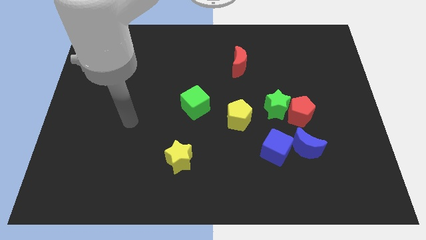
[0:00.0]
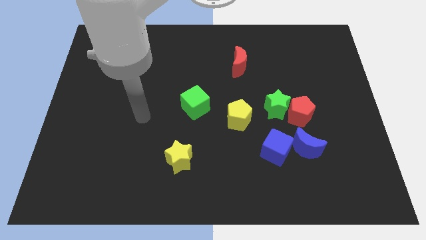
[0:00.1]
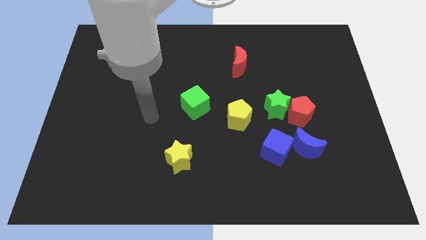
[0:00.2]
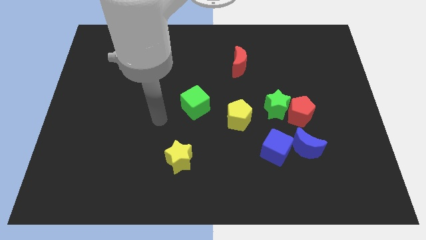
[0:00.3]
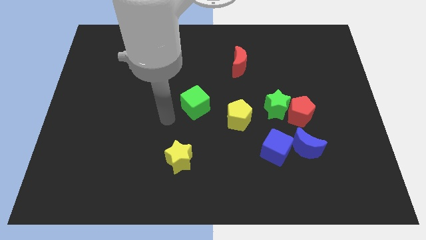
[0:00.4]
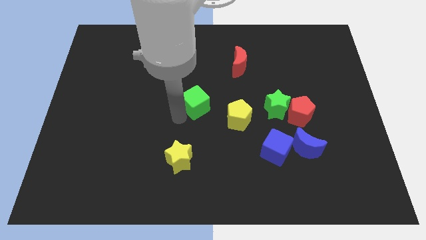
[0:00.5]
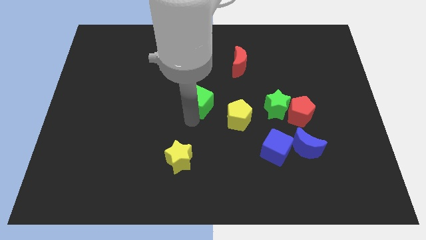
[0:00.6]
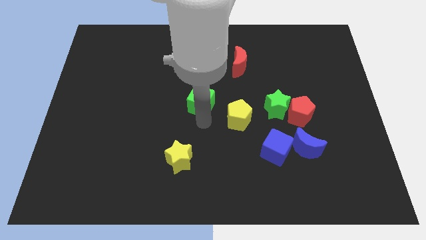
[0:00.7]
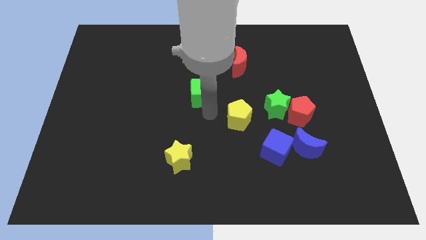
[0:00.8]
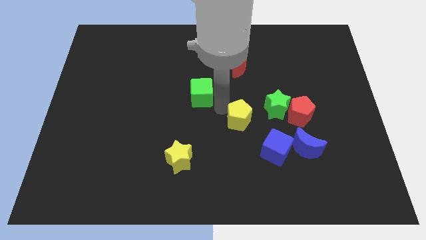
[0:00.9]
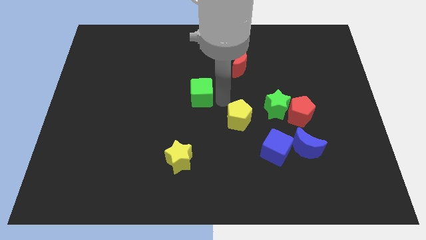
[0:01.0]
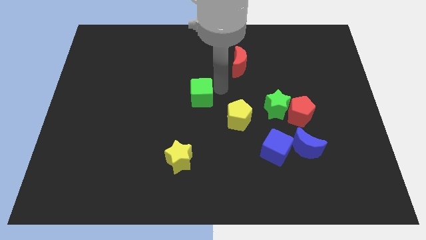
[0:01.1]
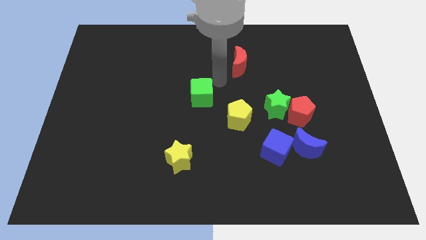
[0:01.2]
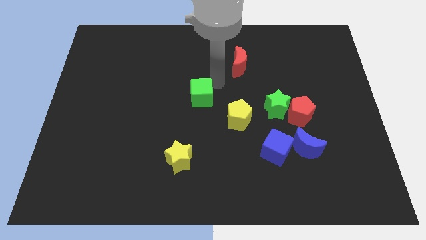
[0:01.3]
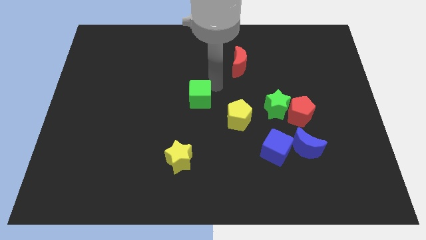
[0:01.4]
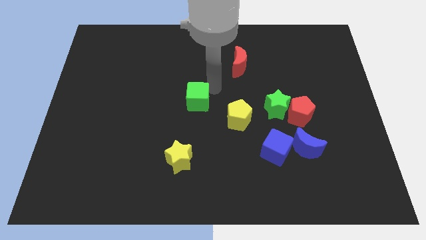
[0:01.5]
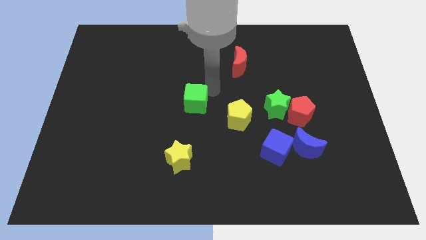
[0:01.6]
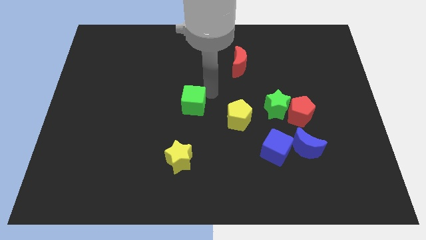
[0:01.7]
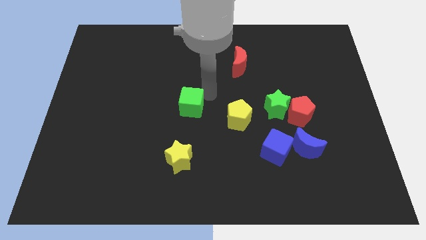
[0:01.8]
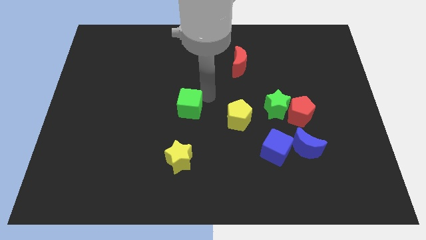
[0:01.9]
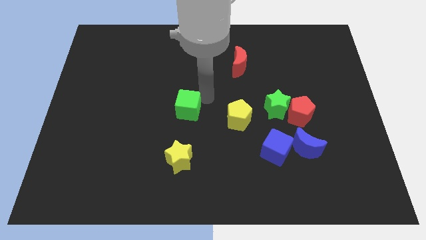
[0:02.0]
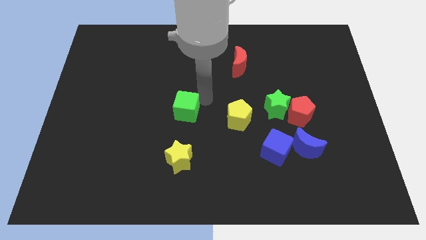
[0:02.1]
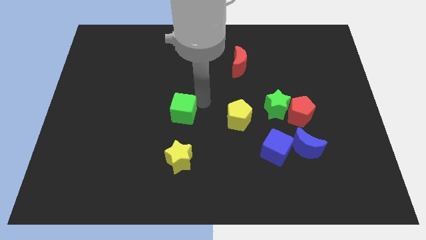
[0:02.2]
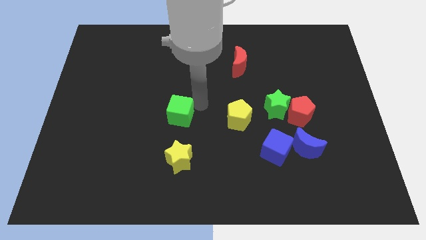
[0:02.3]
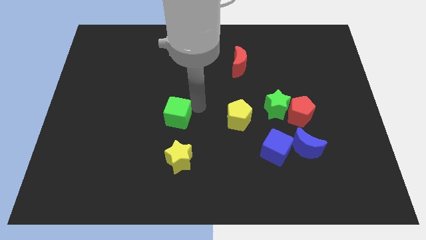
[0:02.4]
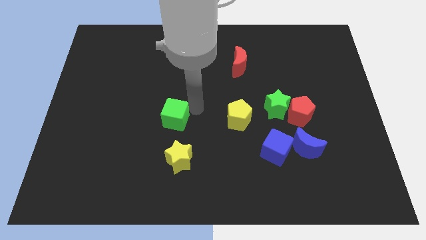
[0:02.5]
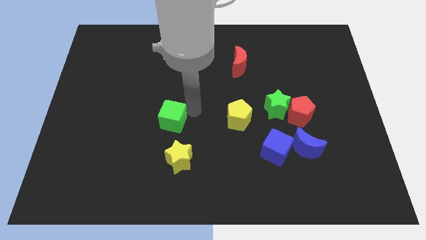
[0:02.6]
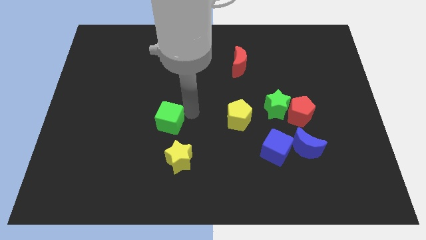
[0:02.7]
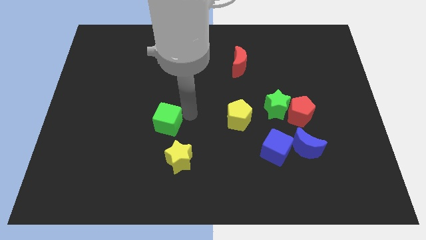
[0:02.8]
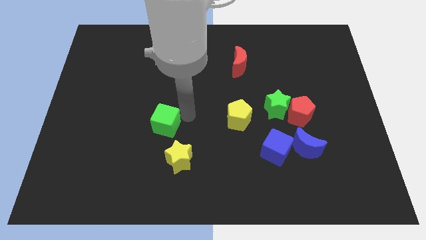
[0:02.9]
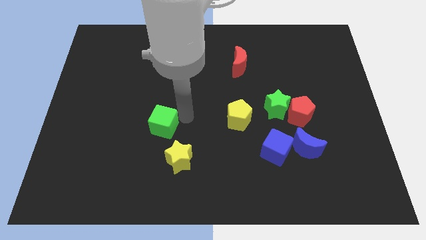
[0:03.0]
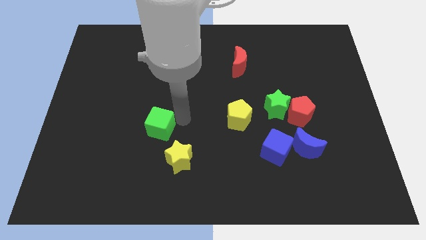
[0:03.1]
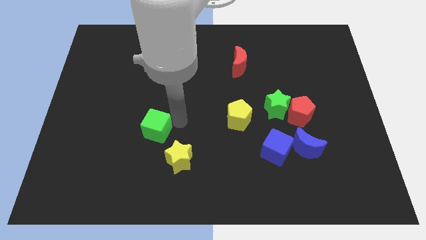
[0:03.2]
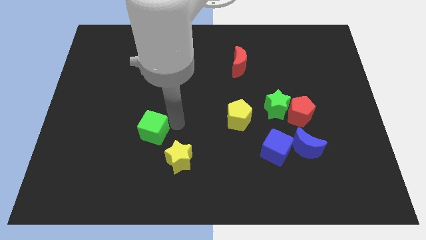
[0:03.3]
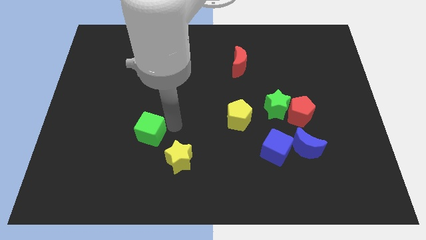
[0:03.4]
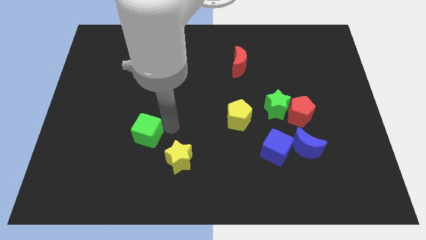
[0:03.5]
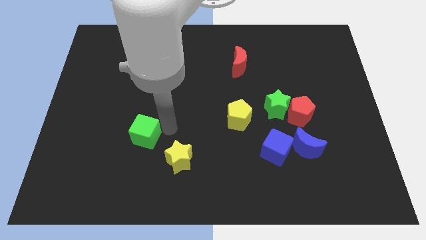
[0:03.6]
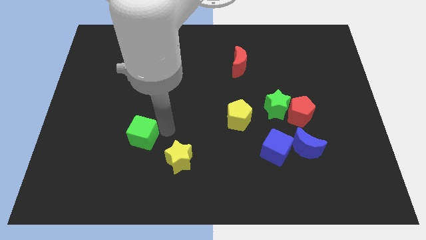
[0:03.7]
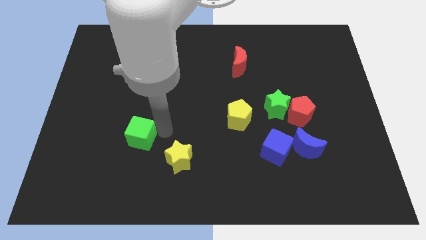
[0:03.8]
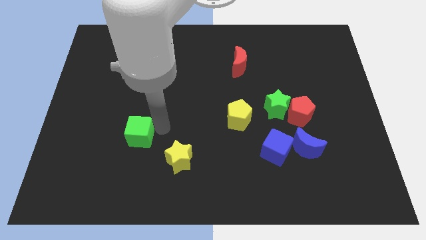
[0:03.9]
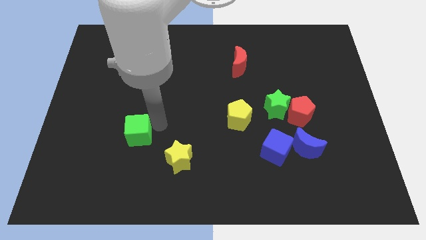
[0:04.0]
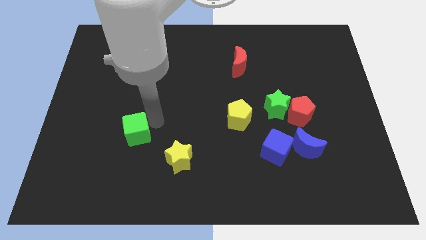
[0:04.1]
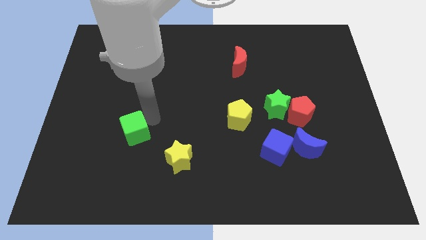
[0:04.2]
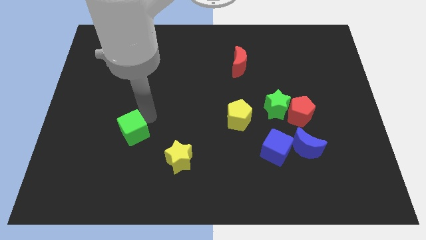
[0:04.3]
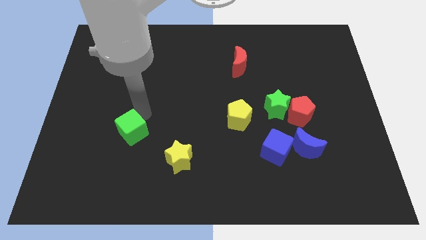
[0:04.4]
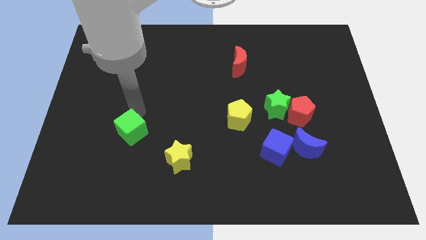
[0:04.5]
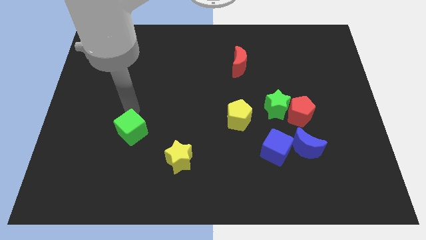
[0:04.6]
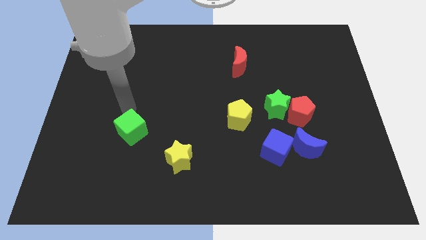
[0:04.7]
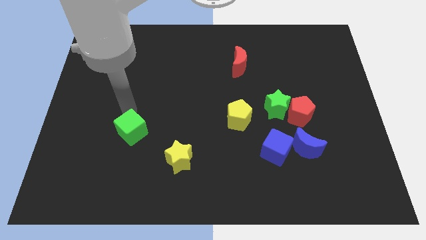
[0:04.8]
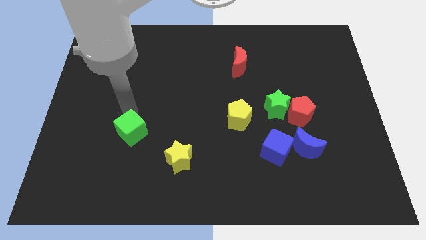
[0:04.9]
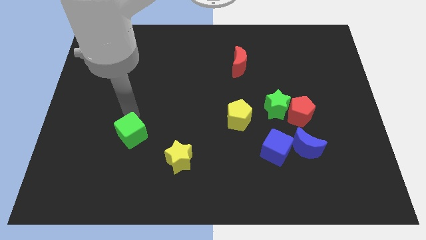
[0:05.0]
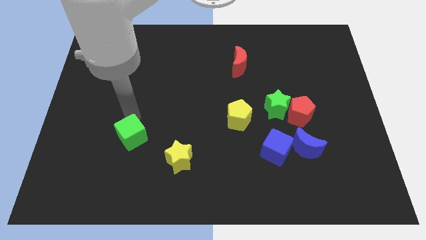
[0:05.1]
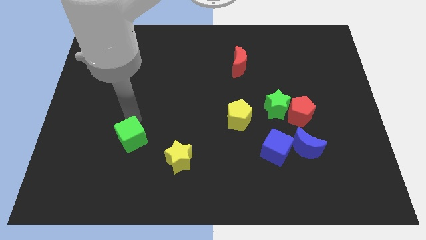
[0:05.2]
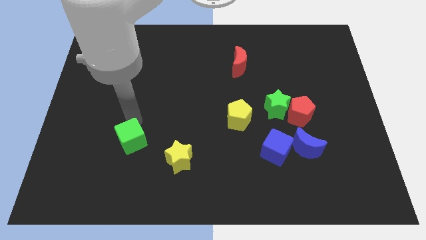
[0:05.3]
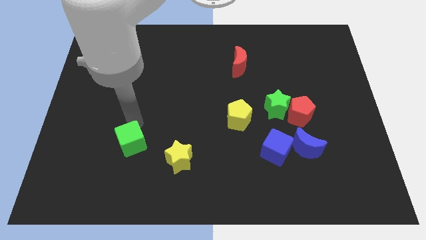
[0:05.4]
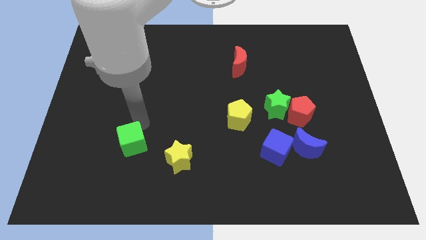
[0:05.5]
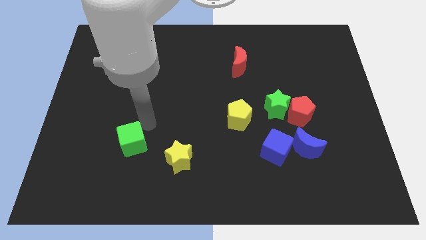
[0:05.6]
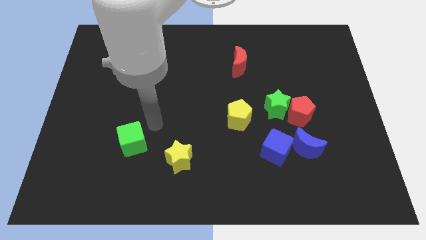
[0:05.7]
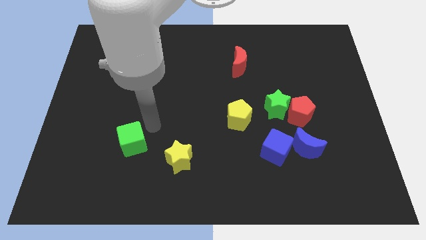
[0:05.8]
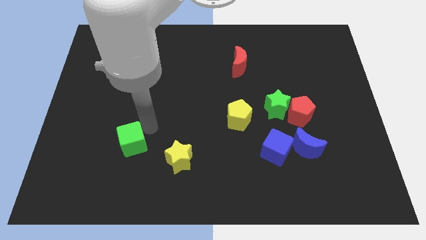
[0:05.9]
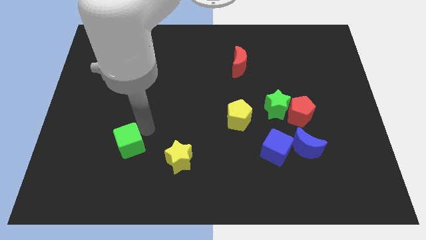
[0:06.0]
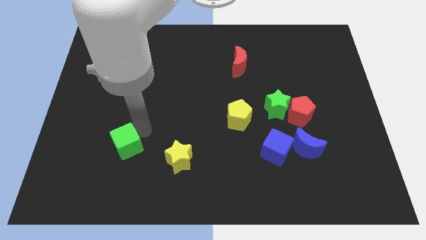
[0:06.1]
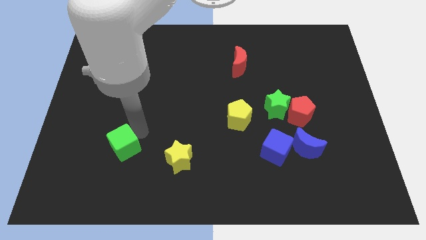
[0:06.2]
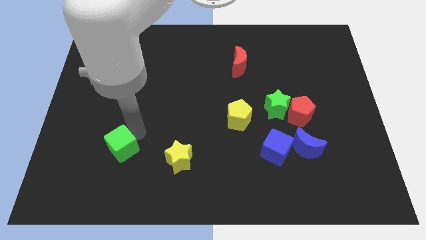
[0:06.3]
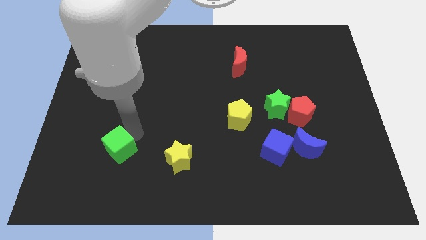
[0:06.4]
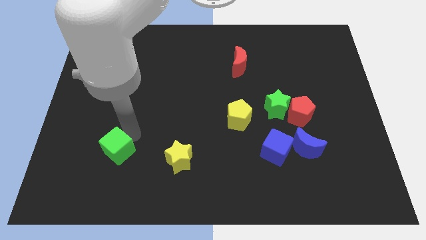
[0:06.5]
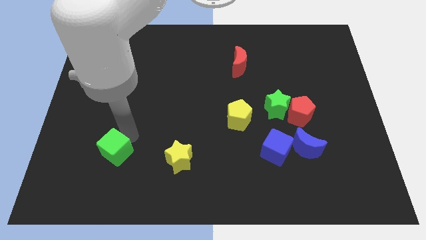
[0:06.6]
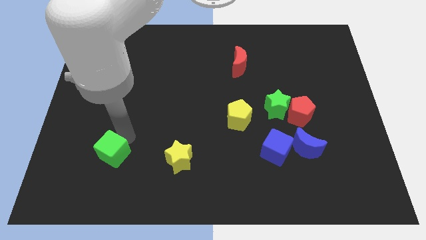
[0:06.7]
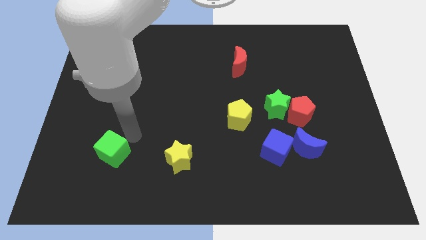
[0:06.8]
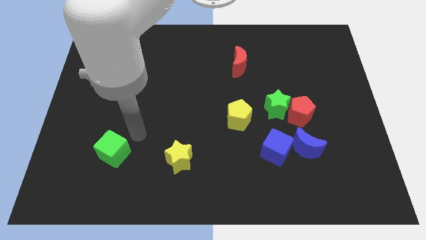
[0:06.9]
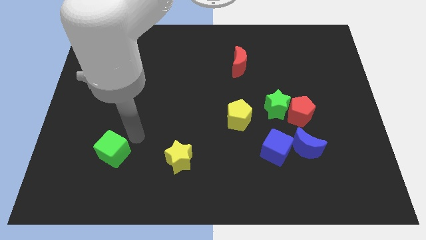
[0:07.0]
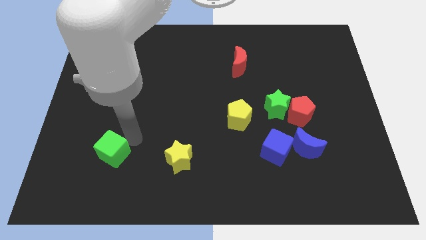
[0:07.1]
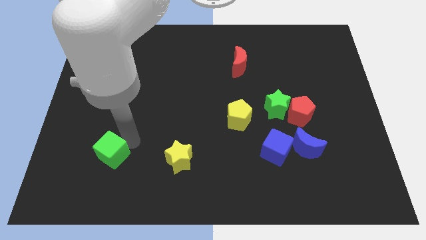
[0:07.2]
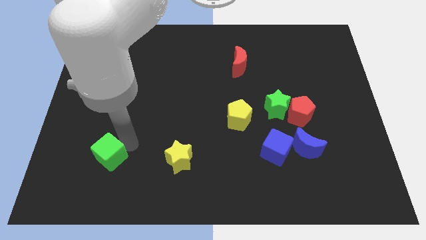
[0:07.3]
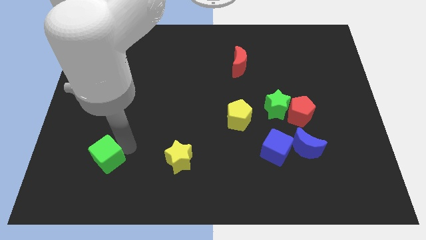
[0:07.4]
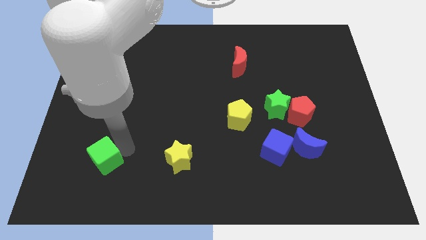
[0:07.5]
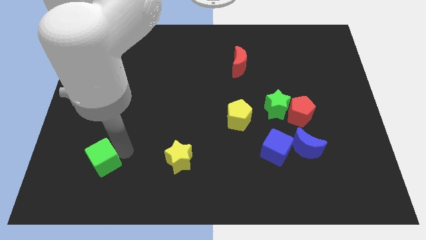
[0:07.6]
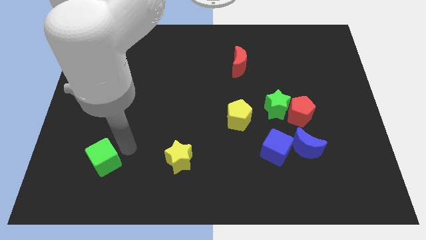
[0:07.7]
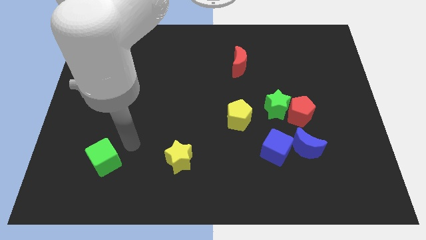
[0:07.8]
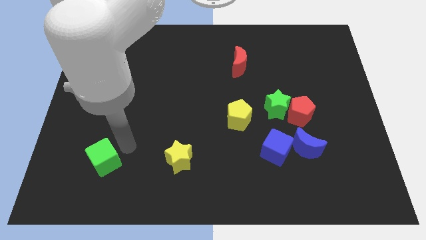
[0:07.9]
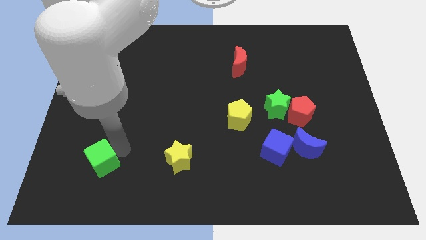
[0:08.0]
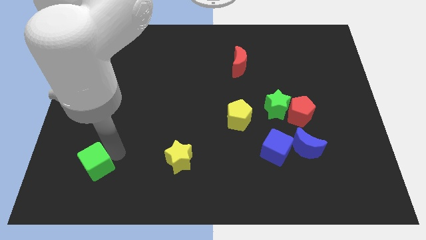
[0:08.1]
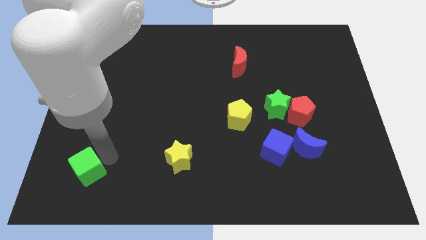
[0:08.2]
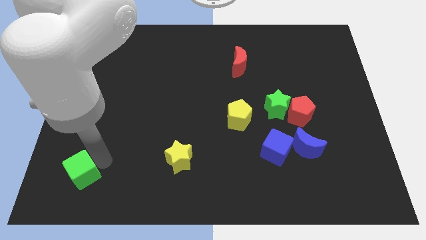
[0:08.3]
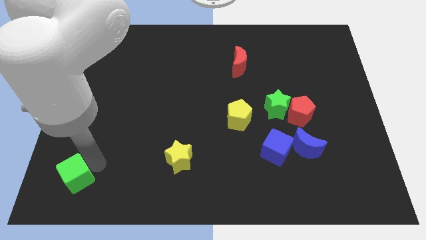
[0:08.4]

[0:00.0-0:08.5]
put the green cube to the bottom left
